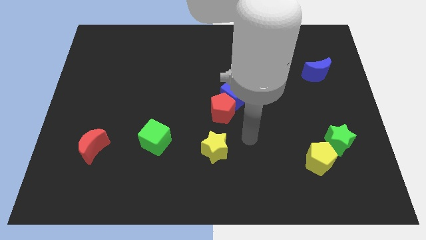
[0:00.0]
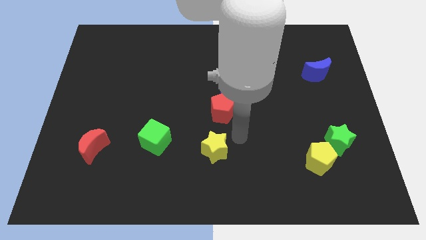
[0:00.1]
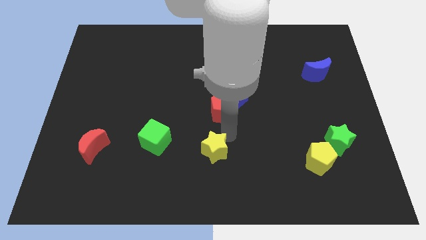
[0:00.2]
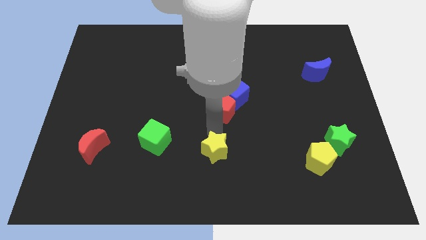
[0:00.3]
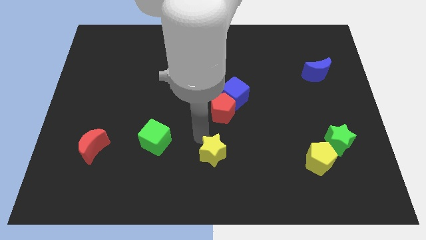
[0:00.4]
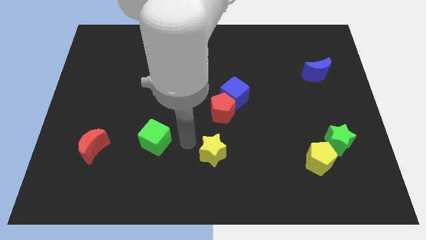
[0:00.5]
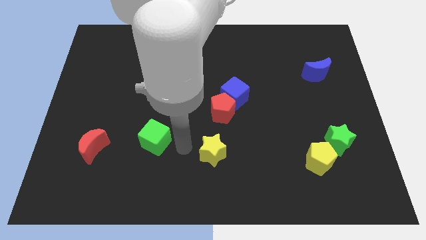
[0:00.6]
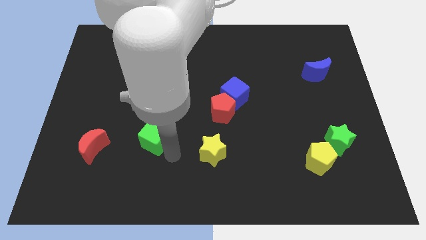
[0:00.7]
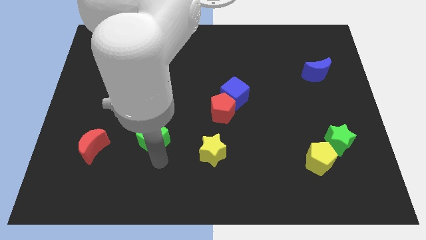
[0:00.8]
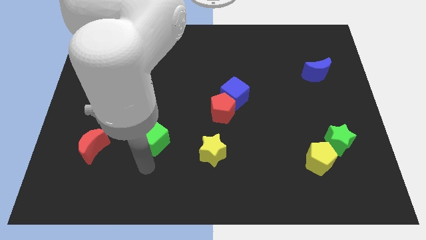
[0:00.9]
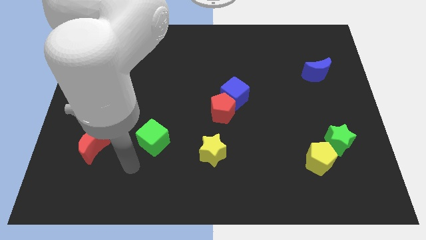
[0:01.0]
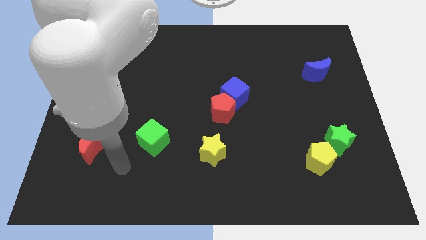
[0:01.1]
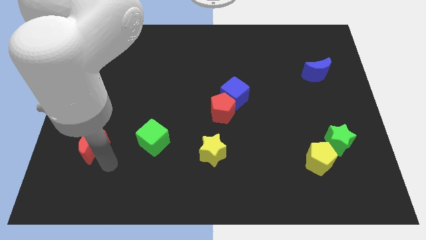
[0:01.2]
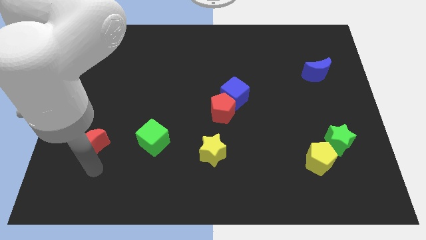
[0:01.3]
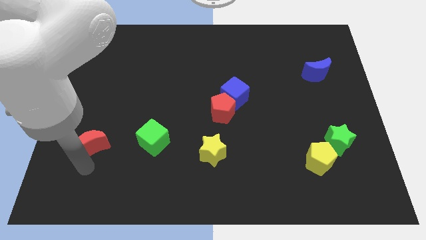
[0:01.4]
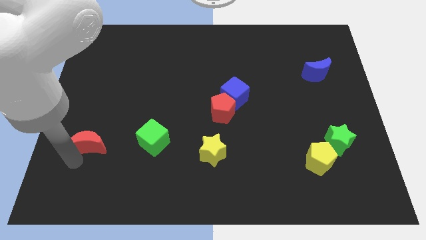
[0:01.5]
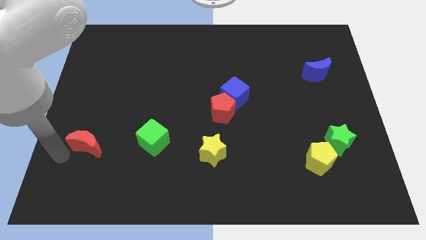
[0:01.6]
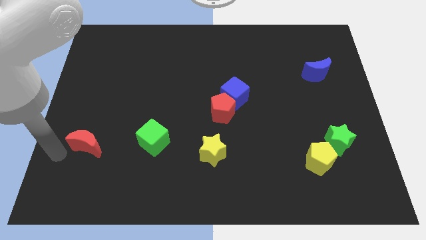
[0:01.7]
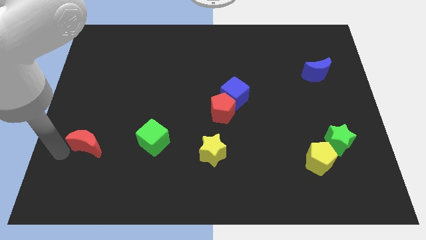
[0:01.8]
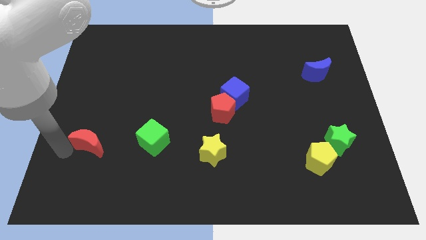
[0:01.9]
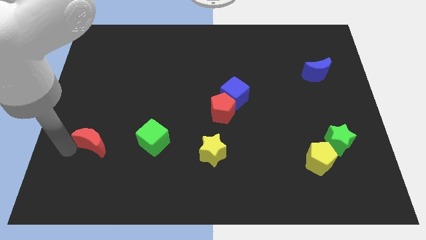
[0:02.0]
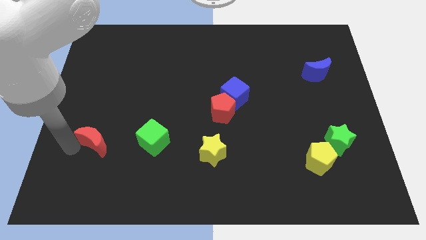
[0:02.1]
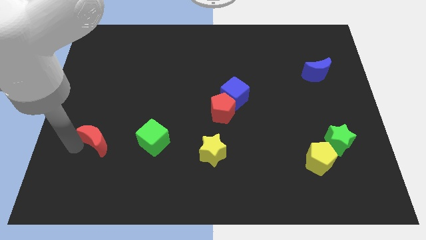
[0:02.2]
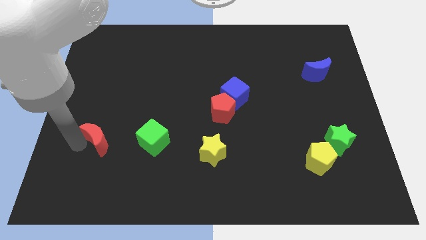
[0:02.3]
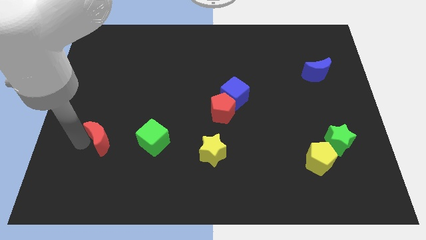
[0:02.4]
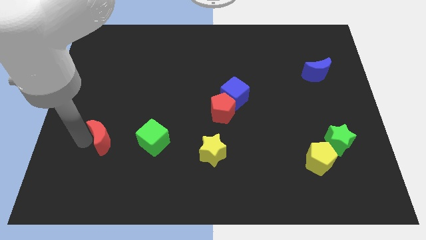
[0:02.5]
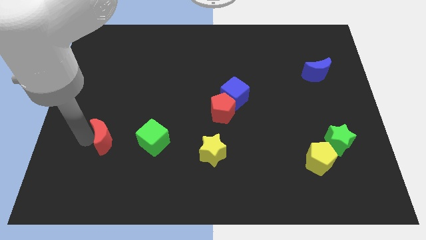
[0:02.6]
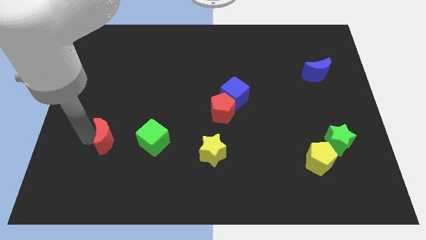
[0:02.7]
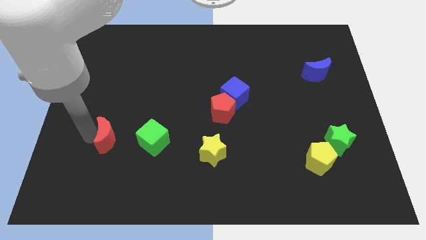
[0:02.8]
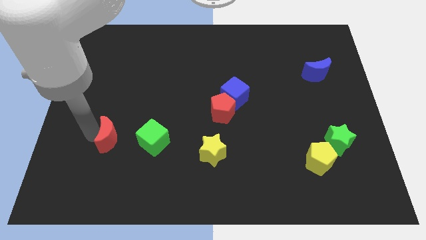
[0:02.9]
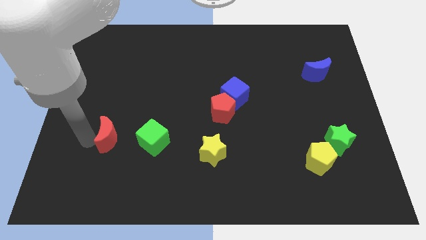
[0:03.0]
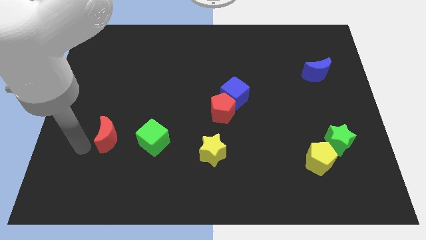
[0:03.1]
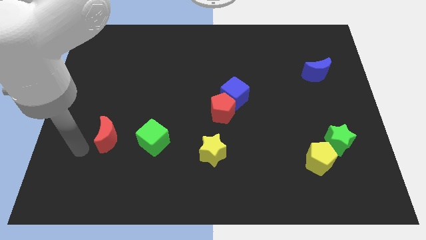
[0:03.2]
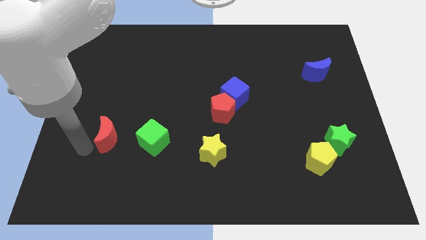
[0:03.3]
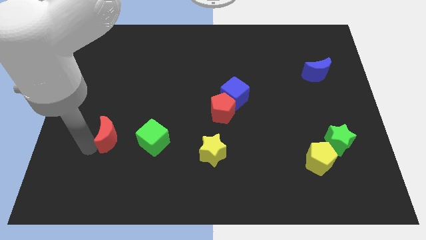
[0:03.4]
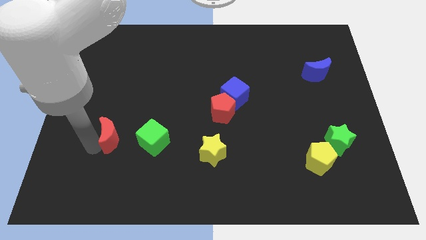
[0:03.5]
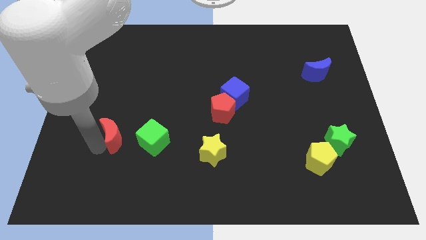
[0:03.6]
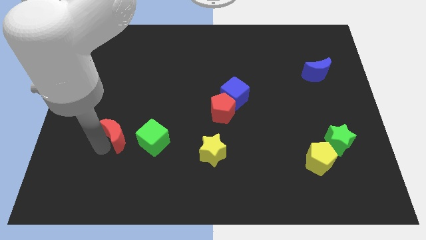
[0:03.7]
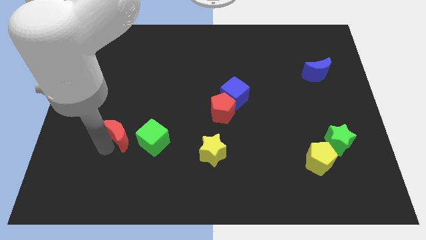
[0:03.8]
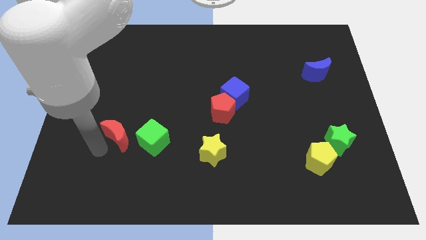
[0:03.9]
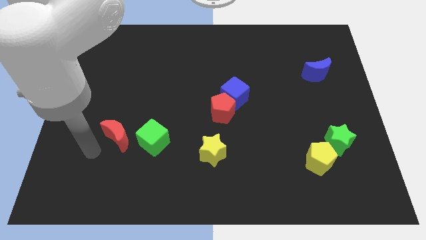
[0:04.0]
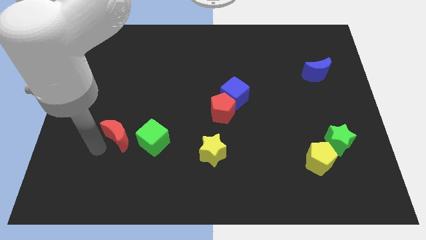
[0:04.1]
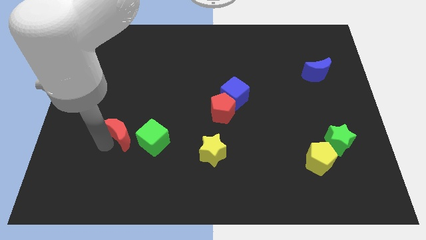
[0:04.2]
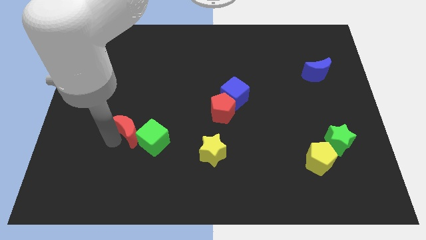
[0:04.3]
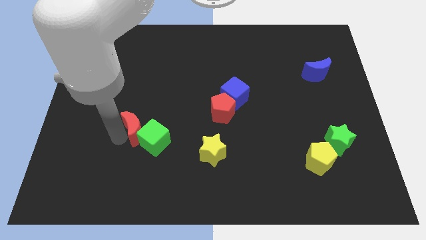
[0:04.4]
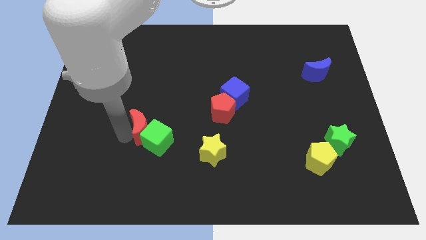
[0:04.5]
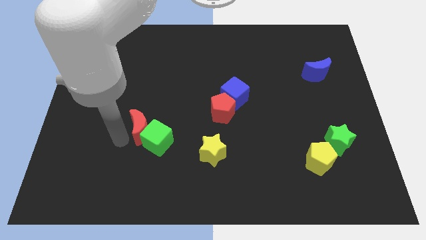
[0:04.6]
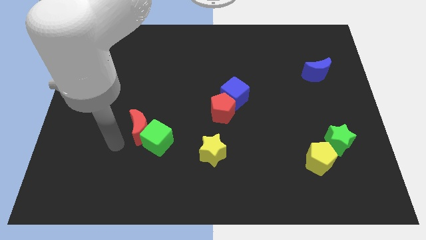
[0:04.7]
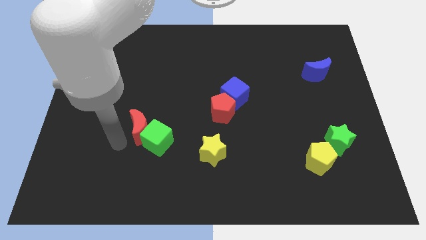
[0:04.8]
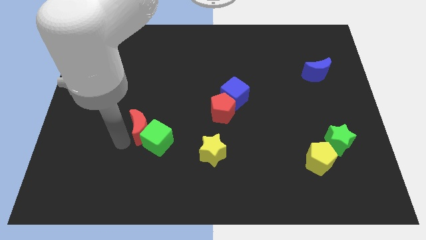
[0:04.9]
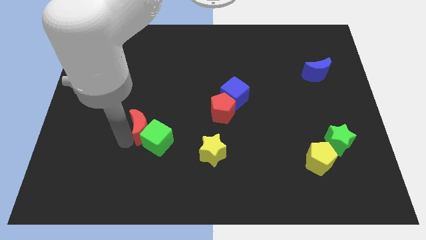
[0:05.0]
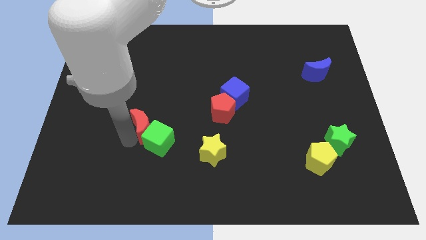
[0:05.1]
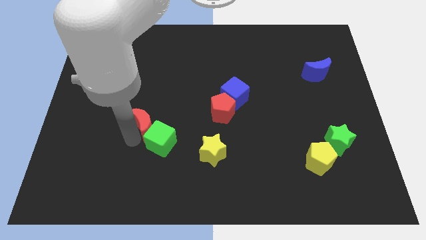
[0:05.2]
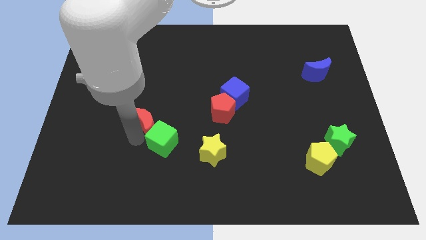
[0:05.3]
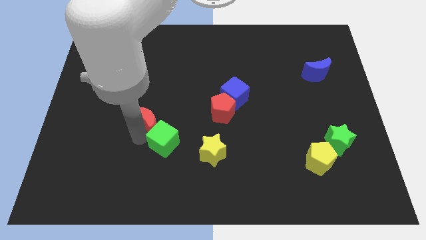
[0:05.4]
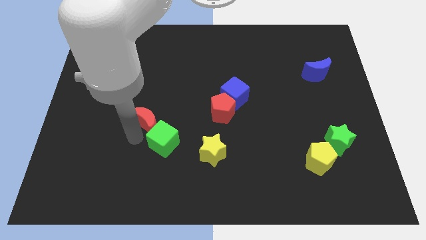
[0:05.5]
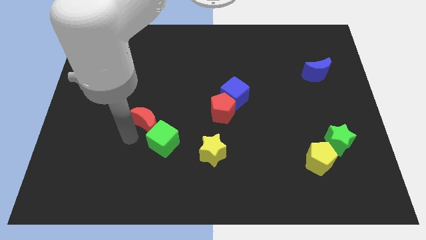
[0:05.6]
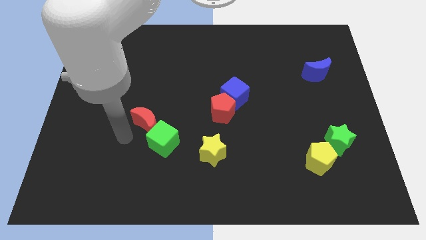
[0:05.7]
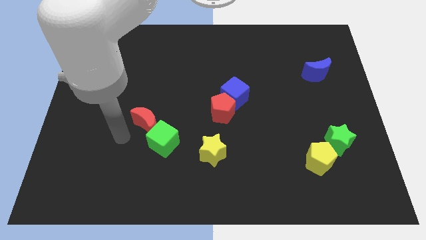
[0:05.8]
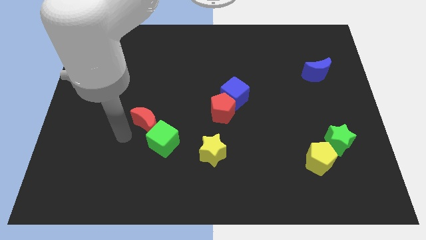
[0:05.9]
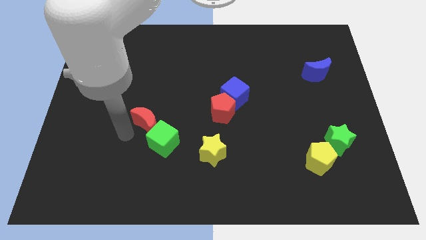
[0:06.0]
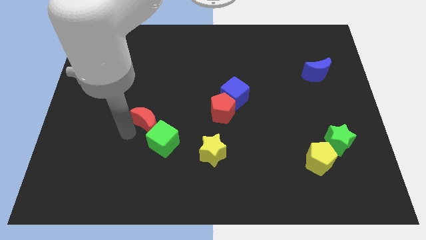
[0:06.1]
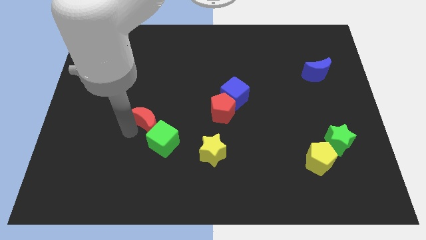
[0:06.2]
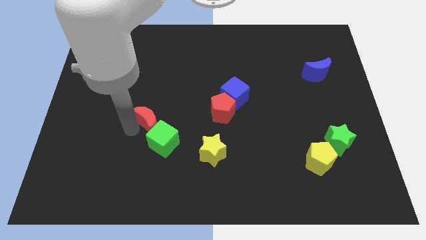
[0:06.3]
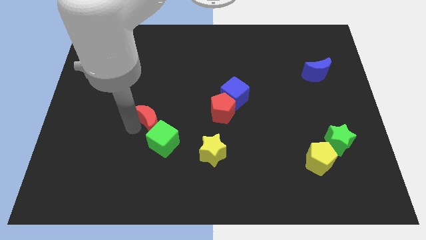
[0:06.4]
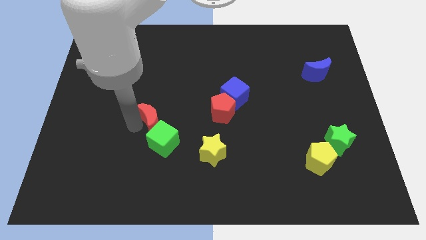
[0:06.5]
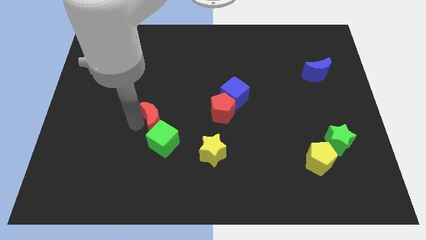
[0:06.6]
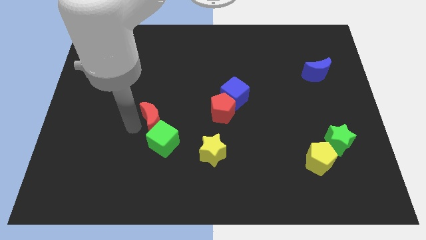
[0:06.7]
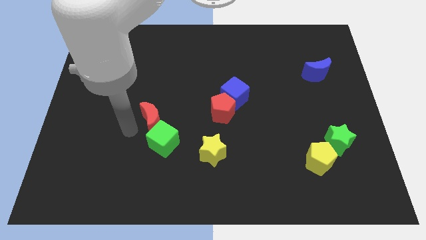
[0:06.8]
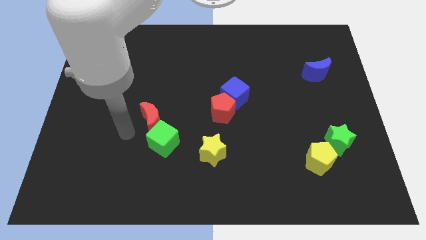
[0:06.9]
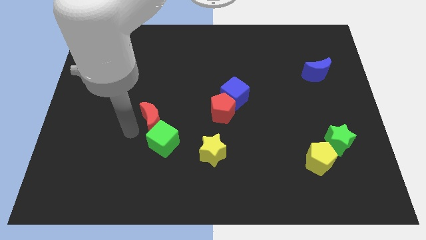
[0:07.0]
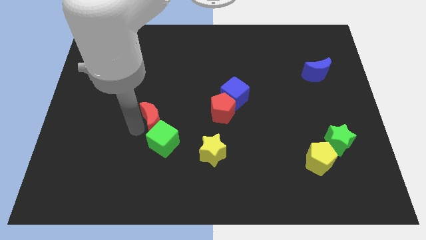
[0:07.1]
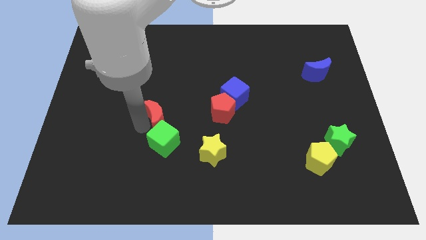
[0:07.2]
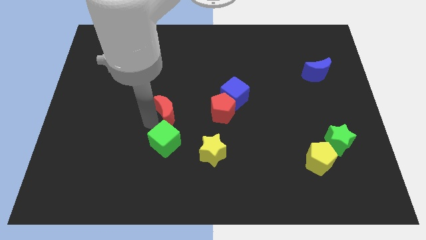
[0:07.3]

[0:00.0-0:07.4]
push the red moon to the center
